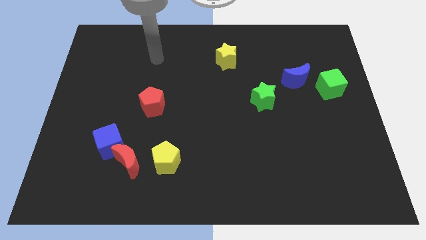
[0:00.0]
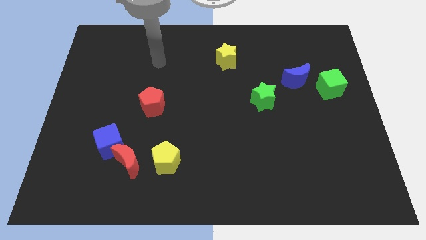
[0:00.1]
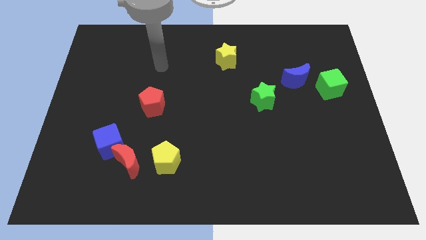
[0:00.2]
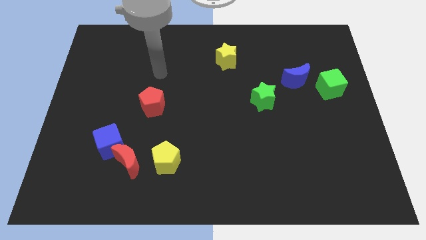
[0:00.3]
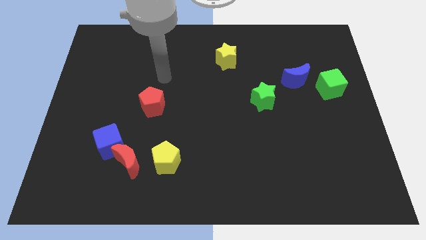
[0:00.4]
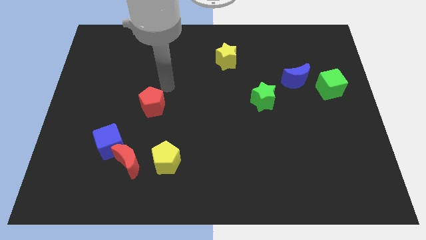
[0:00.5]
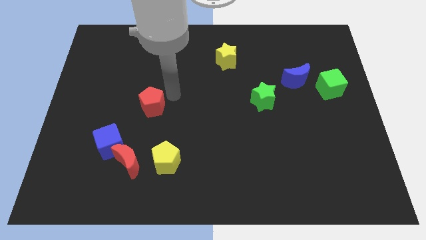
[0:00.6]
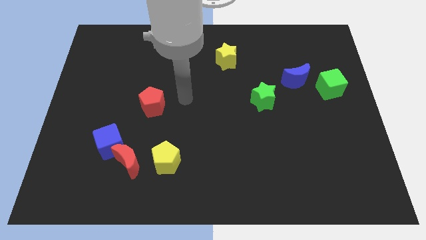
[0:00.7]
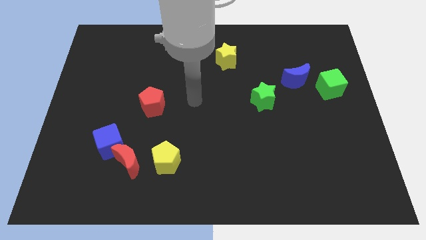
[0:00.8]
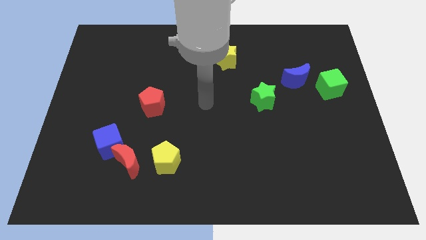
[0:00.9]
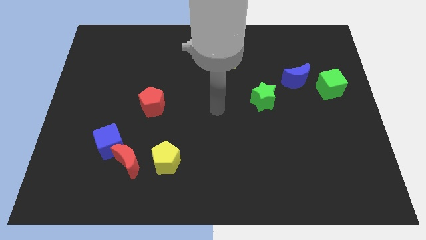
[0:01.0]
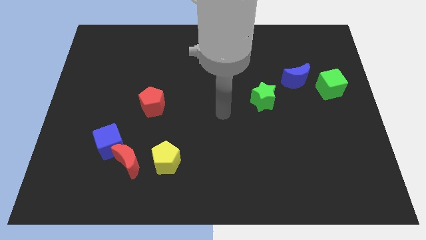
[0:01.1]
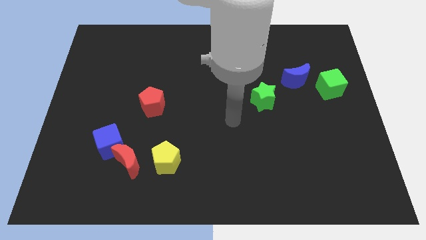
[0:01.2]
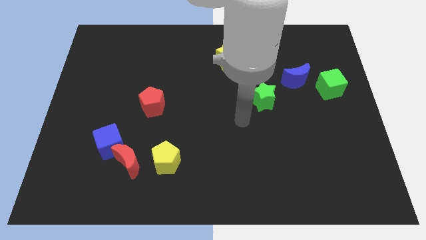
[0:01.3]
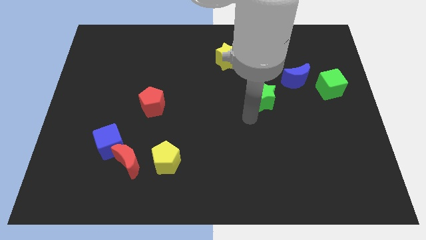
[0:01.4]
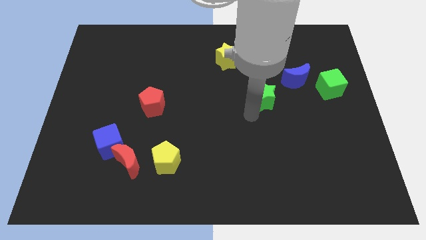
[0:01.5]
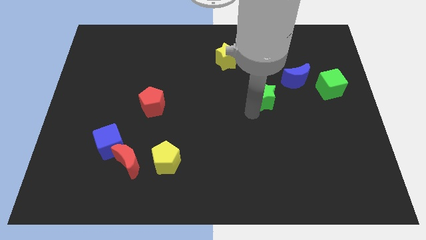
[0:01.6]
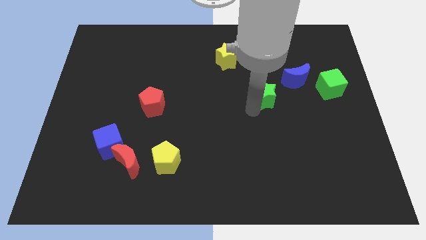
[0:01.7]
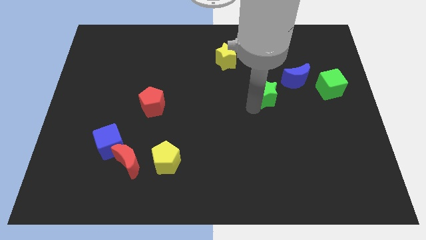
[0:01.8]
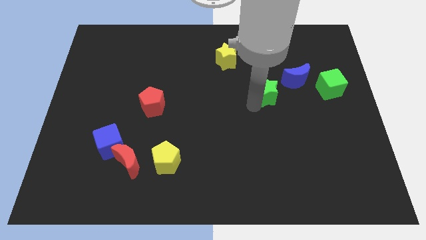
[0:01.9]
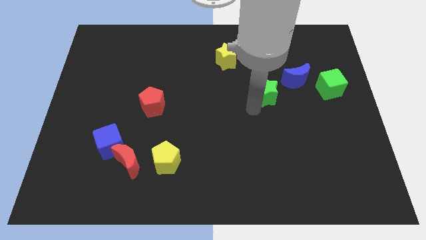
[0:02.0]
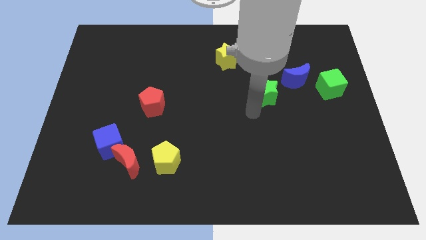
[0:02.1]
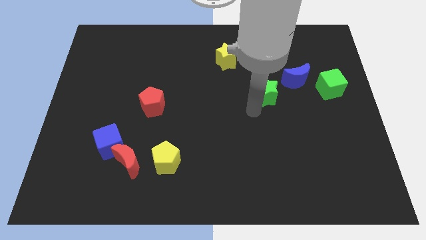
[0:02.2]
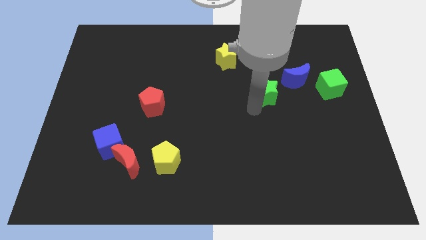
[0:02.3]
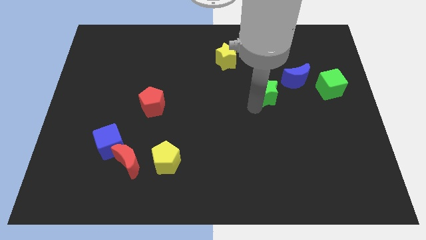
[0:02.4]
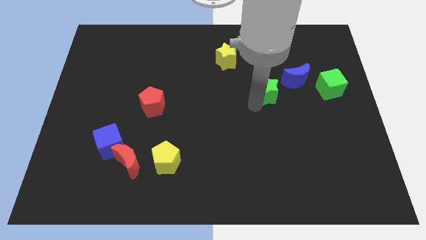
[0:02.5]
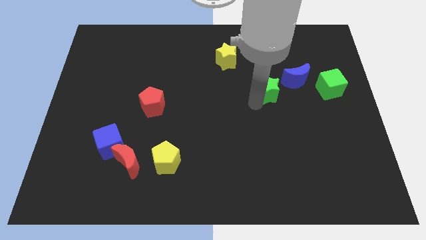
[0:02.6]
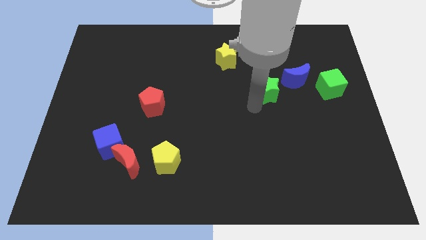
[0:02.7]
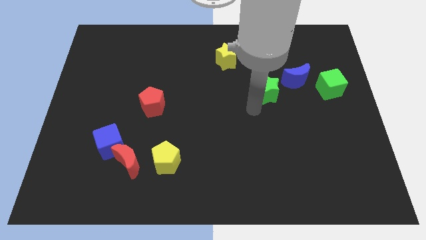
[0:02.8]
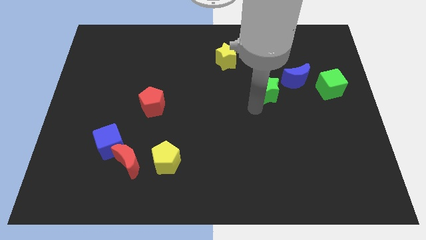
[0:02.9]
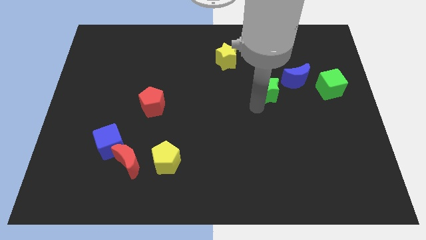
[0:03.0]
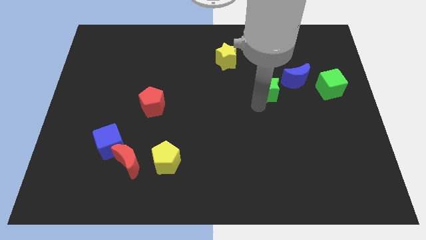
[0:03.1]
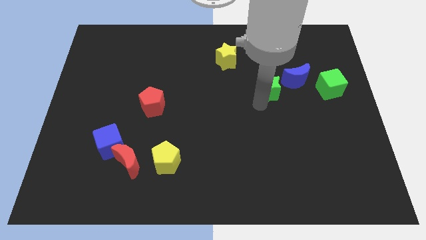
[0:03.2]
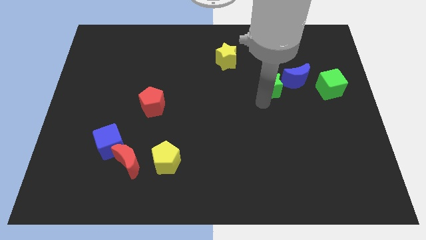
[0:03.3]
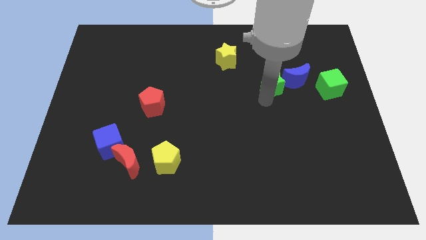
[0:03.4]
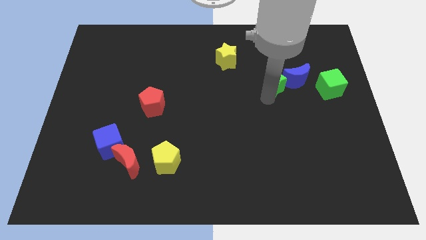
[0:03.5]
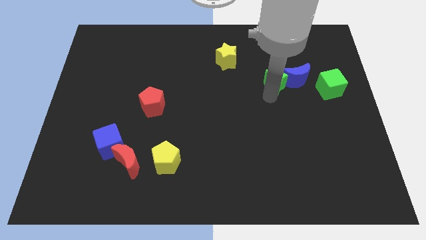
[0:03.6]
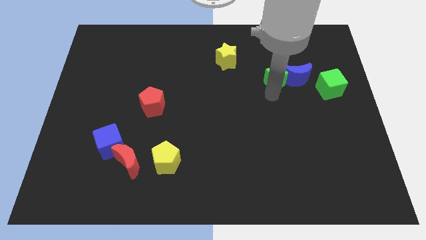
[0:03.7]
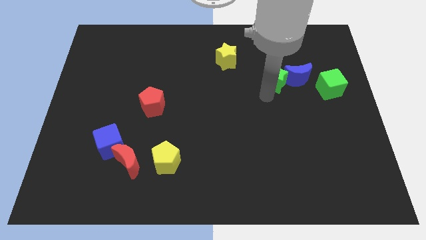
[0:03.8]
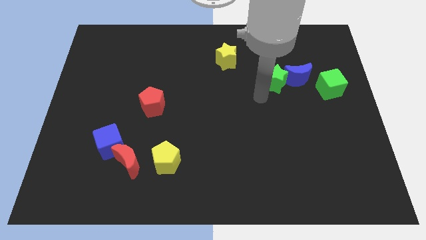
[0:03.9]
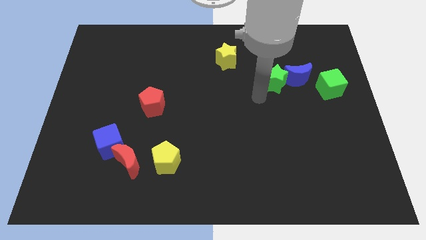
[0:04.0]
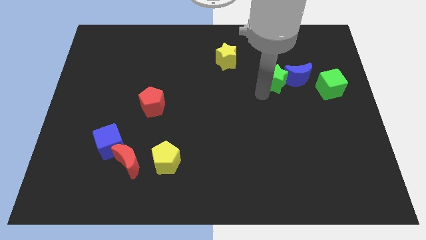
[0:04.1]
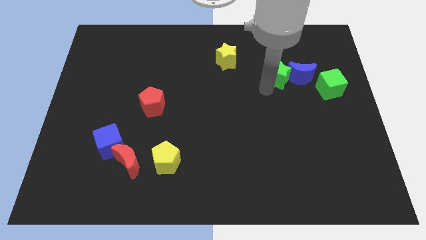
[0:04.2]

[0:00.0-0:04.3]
push the green star a little upwards and then to the right

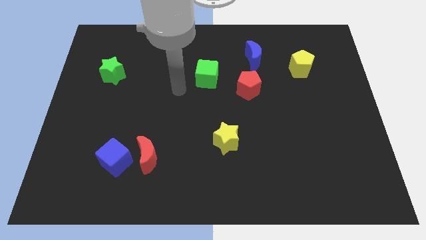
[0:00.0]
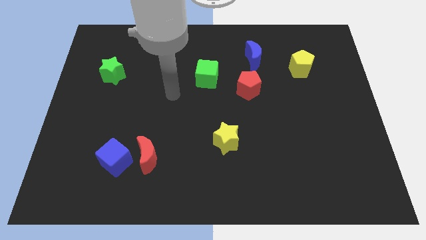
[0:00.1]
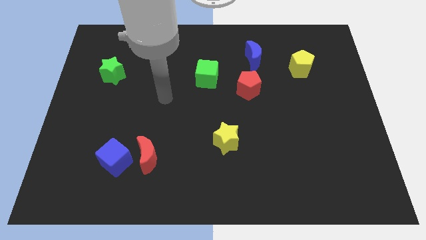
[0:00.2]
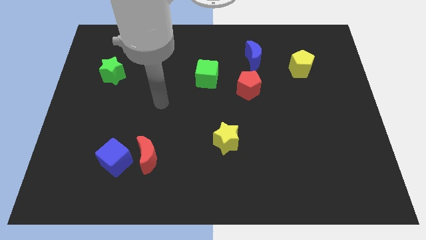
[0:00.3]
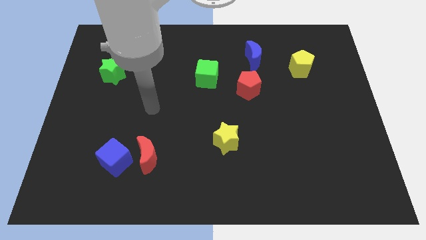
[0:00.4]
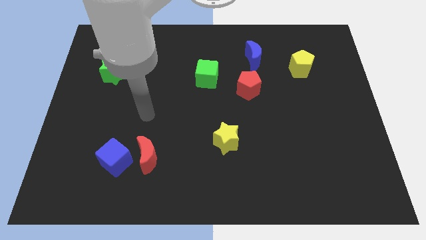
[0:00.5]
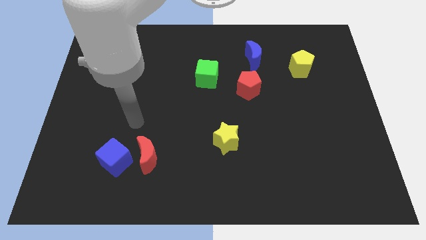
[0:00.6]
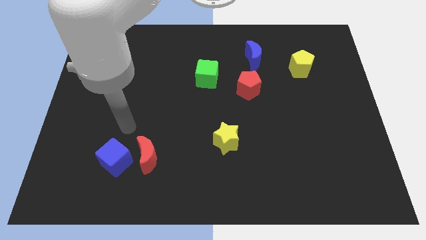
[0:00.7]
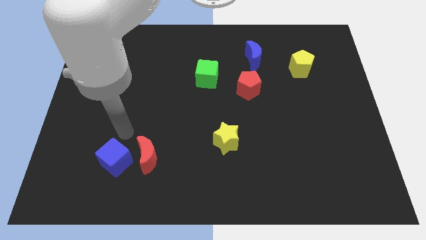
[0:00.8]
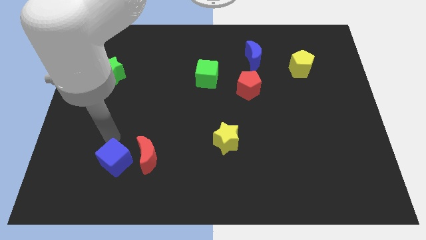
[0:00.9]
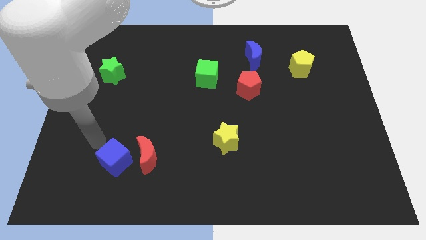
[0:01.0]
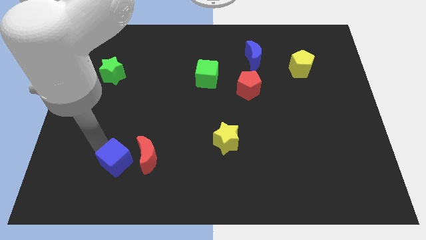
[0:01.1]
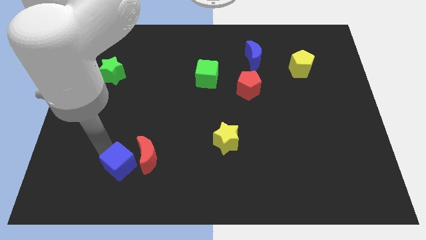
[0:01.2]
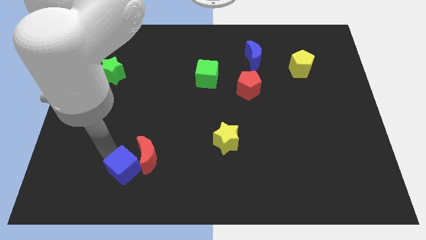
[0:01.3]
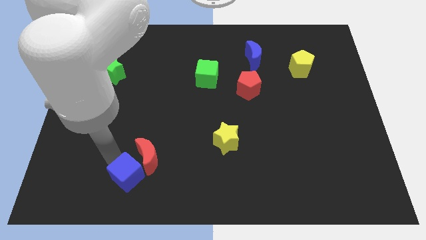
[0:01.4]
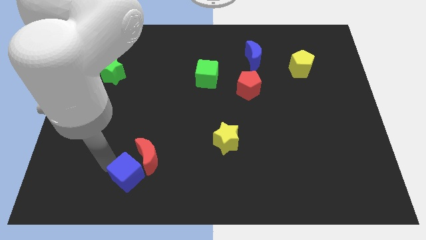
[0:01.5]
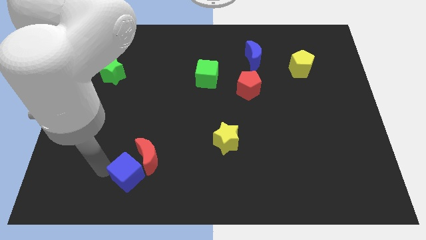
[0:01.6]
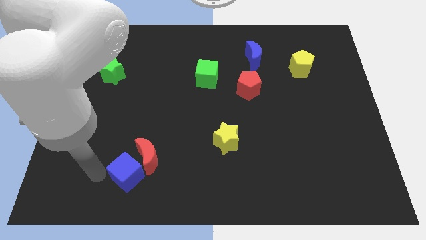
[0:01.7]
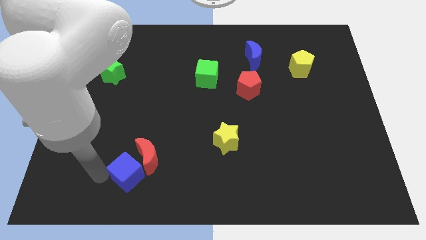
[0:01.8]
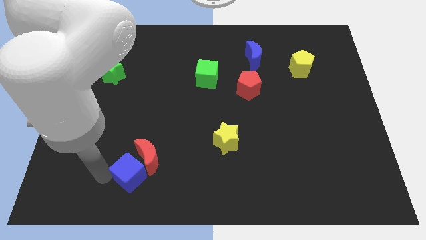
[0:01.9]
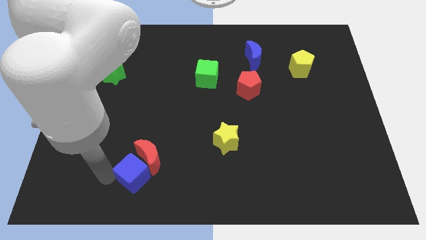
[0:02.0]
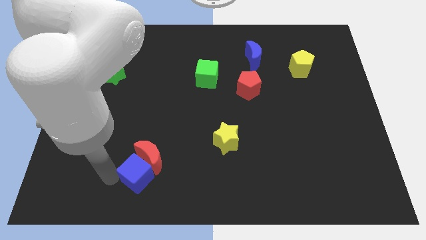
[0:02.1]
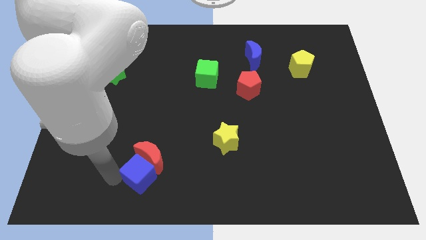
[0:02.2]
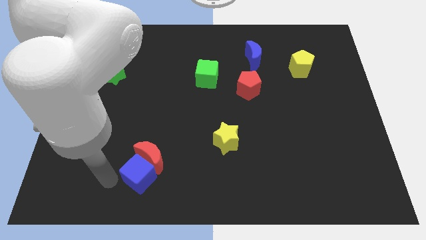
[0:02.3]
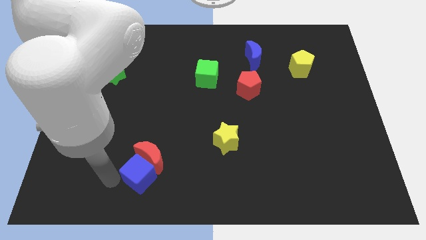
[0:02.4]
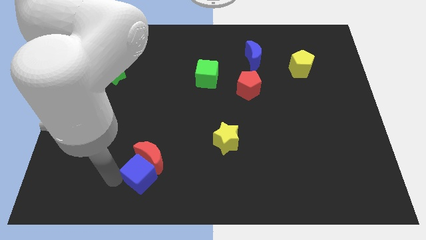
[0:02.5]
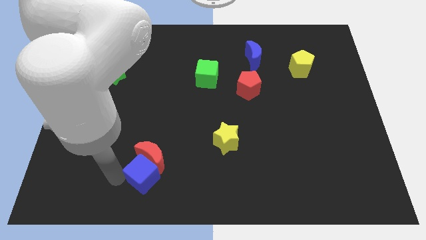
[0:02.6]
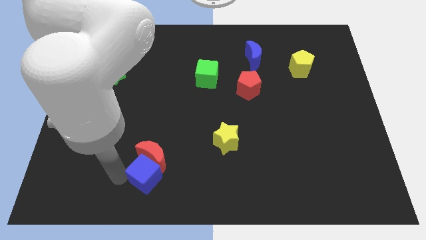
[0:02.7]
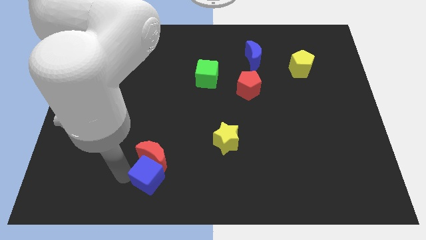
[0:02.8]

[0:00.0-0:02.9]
slightly push the blue cube right

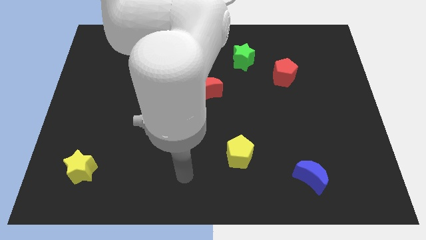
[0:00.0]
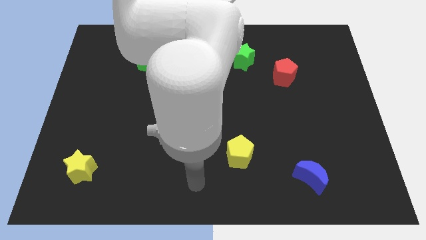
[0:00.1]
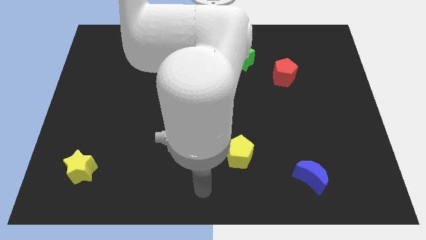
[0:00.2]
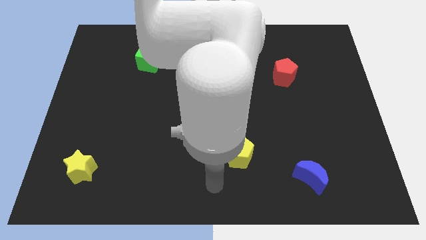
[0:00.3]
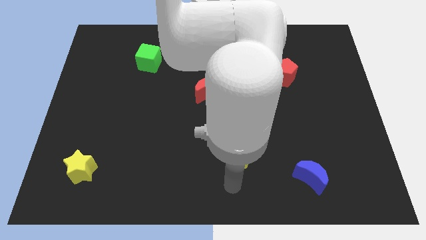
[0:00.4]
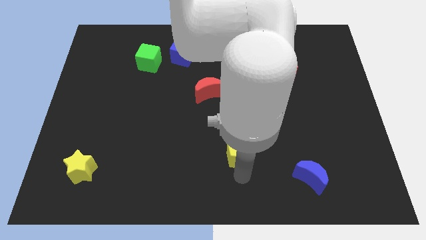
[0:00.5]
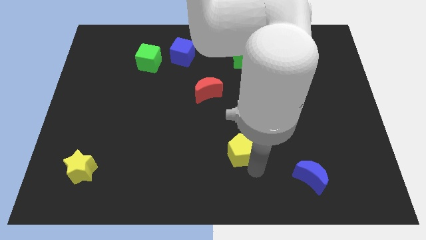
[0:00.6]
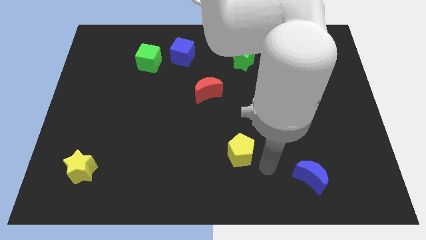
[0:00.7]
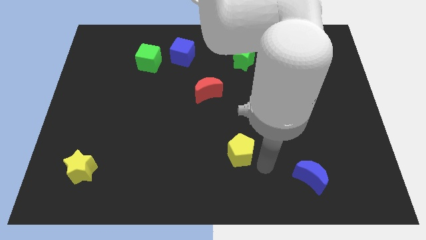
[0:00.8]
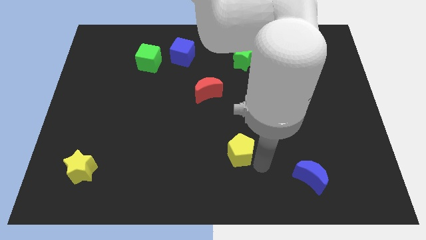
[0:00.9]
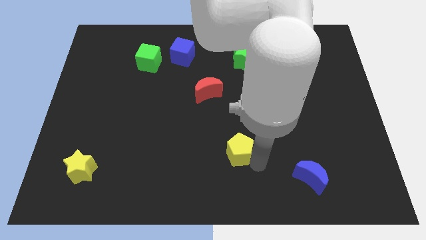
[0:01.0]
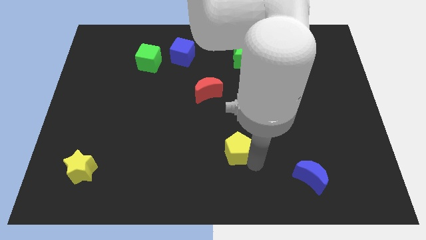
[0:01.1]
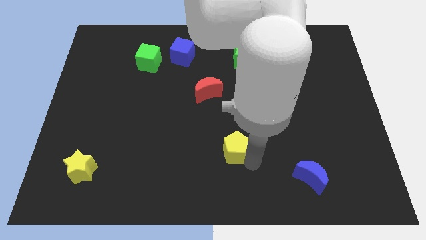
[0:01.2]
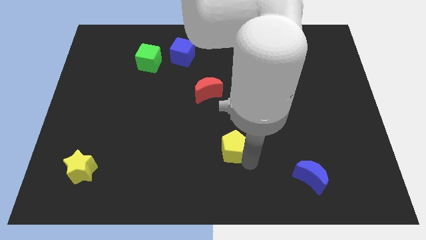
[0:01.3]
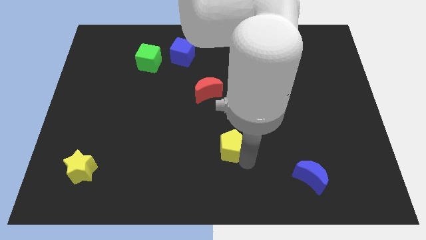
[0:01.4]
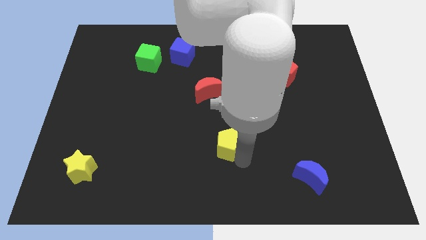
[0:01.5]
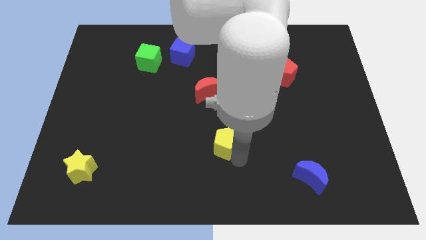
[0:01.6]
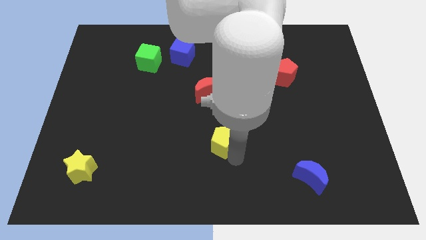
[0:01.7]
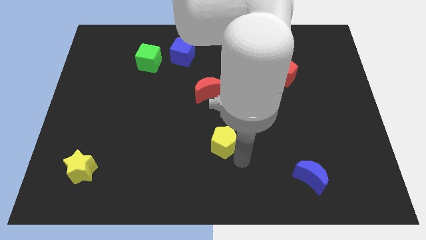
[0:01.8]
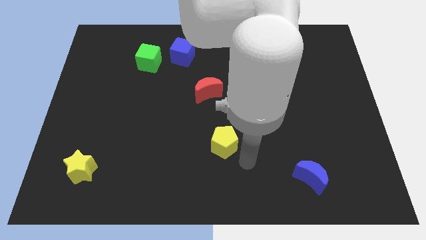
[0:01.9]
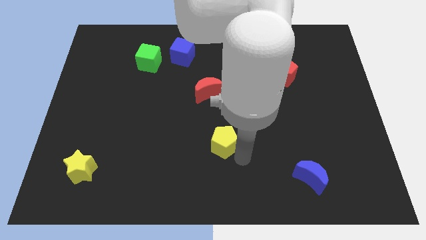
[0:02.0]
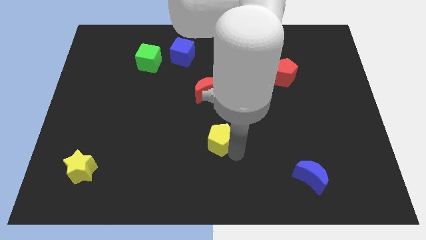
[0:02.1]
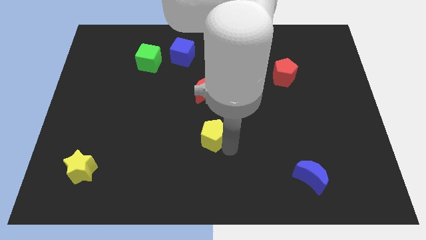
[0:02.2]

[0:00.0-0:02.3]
slightly move the yellow pentagon upwards and then to the left
